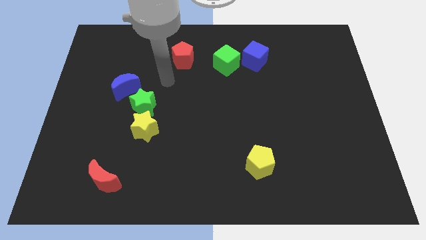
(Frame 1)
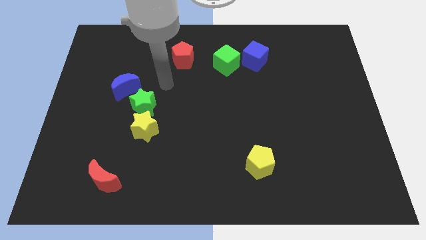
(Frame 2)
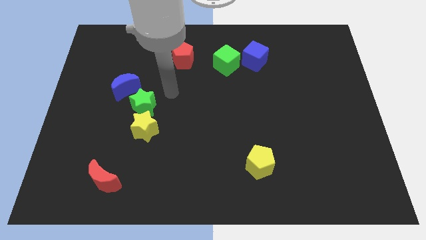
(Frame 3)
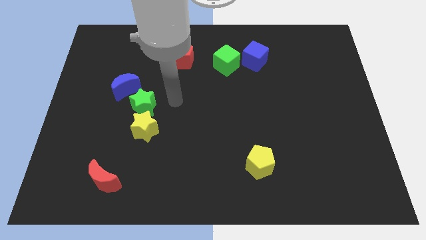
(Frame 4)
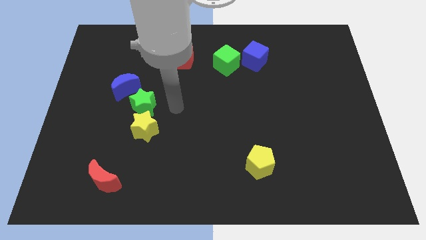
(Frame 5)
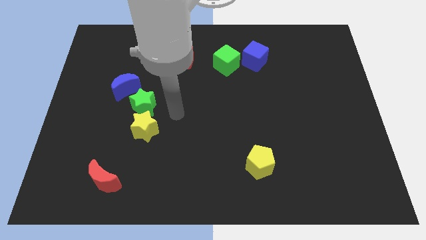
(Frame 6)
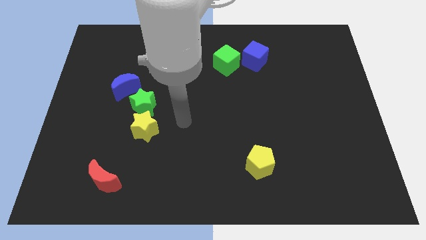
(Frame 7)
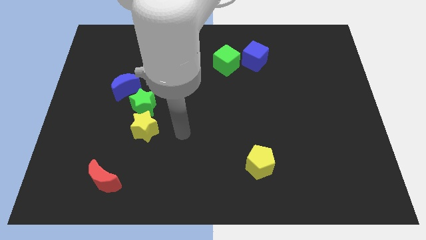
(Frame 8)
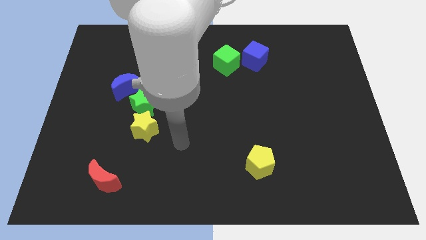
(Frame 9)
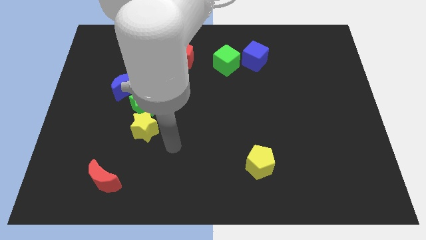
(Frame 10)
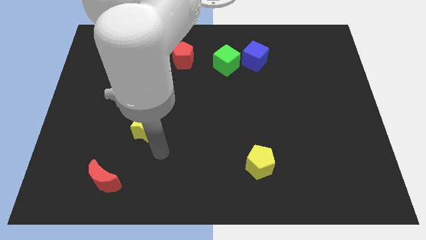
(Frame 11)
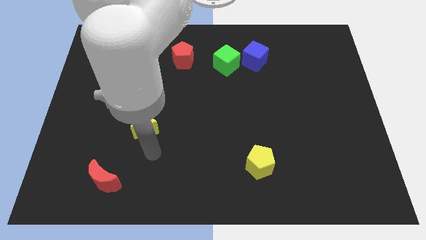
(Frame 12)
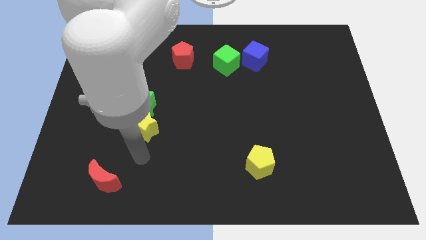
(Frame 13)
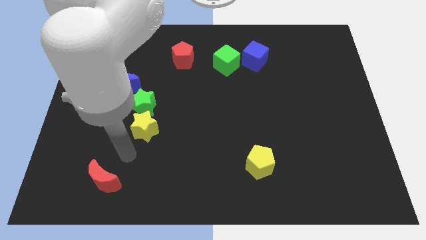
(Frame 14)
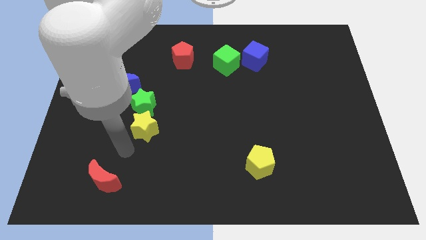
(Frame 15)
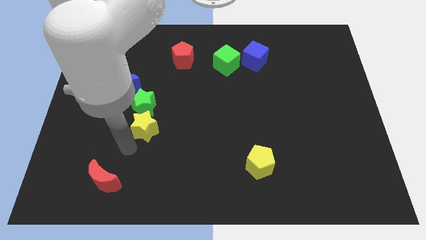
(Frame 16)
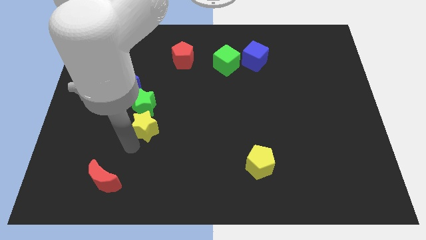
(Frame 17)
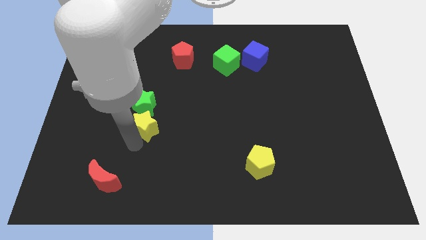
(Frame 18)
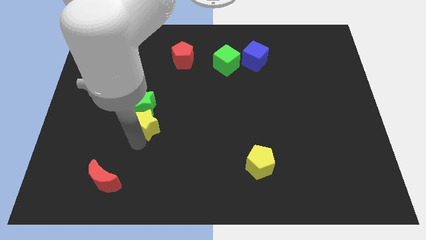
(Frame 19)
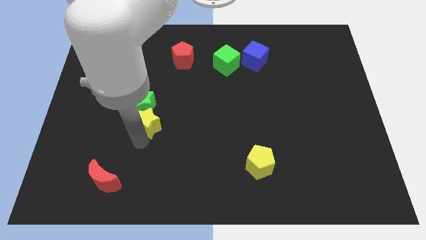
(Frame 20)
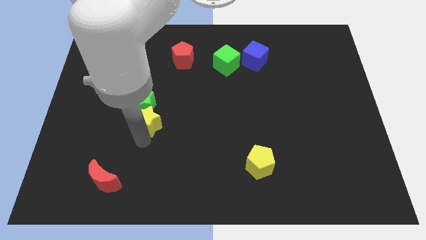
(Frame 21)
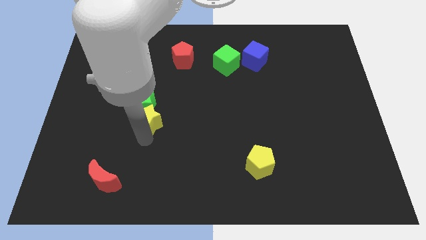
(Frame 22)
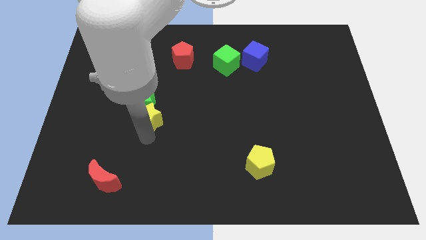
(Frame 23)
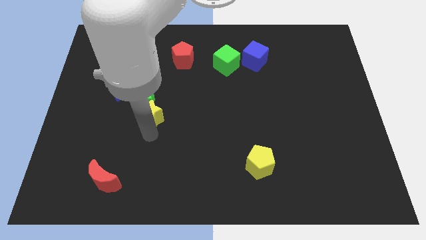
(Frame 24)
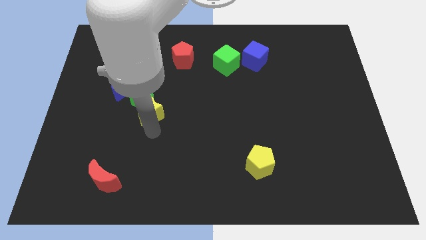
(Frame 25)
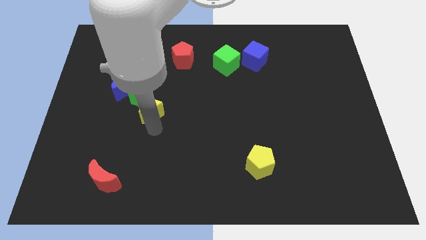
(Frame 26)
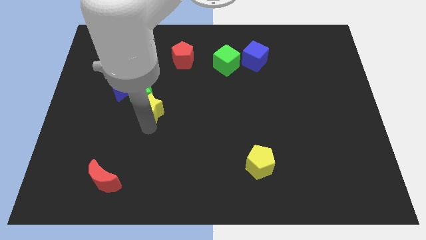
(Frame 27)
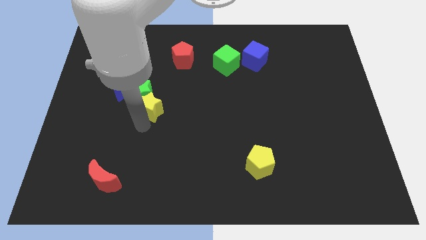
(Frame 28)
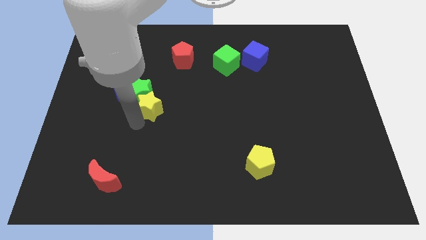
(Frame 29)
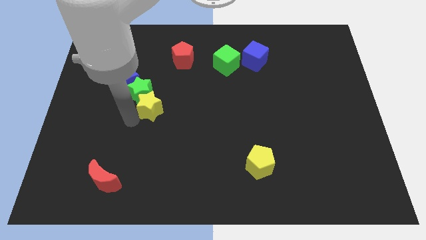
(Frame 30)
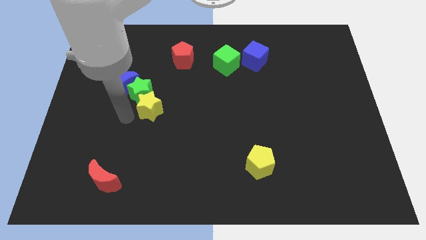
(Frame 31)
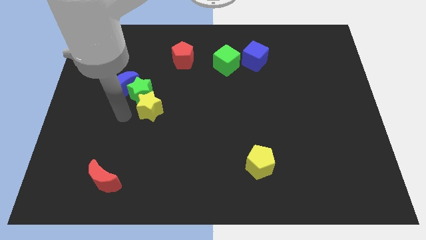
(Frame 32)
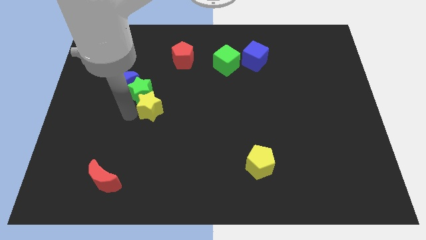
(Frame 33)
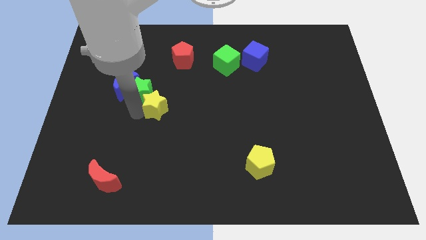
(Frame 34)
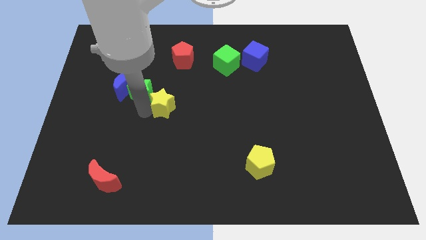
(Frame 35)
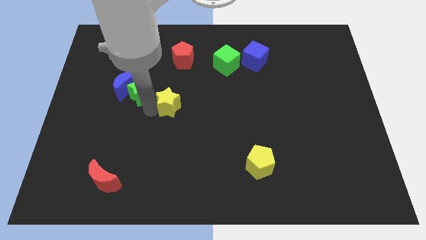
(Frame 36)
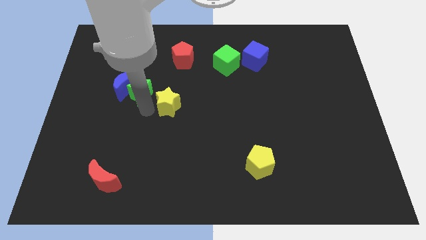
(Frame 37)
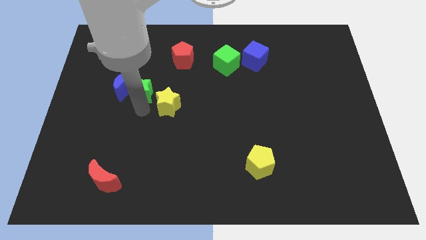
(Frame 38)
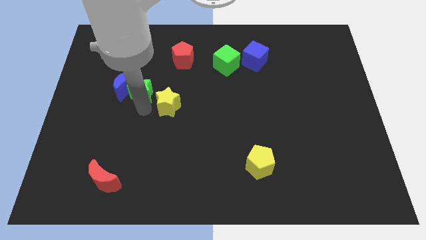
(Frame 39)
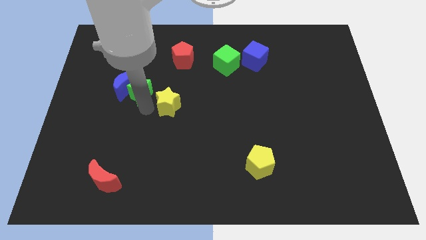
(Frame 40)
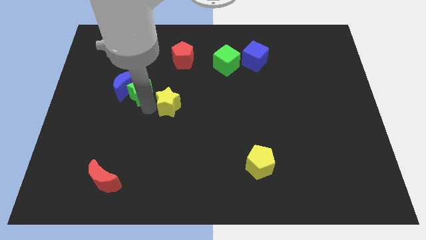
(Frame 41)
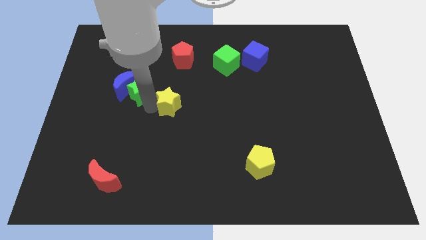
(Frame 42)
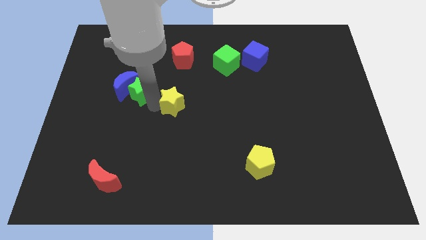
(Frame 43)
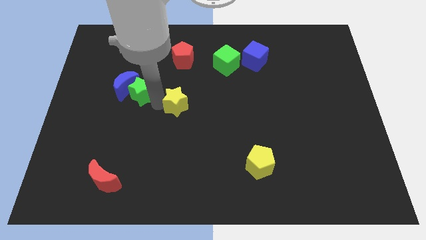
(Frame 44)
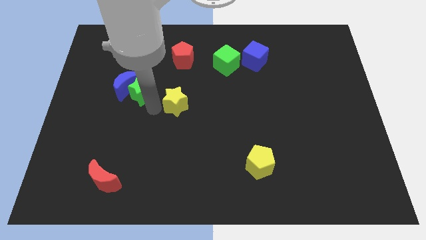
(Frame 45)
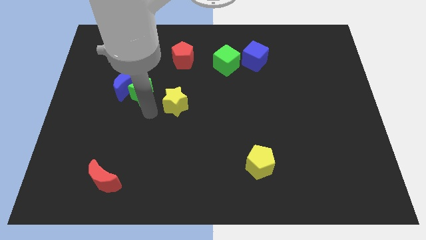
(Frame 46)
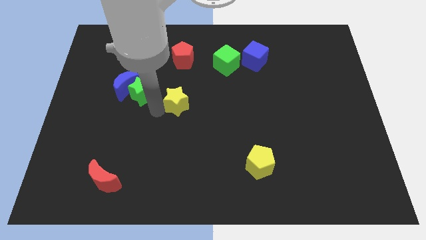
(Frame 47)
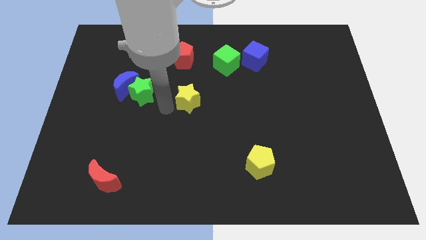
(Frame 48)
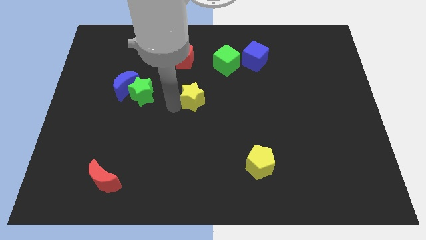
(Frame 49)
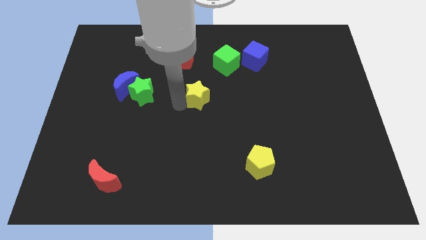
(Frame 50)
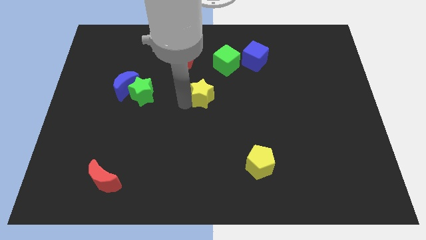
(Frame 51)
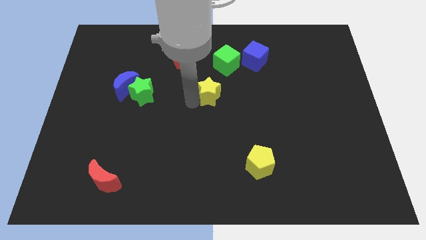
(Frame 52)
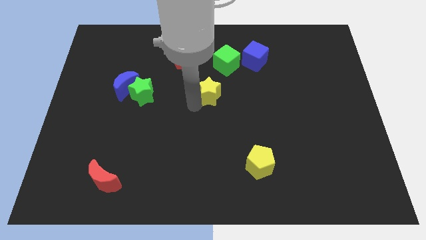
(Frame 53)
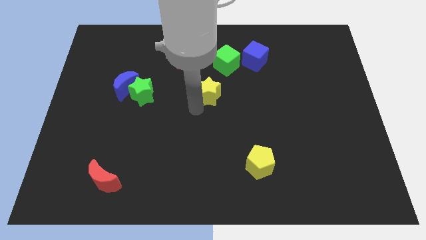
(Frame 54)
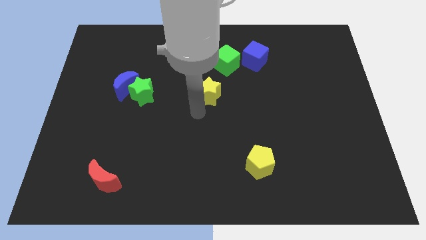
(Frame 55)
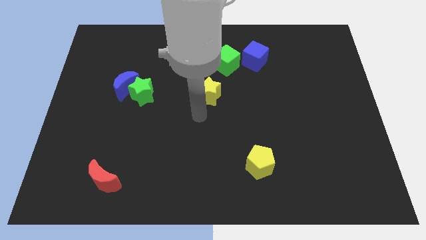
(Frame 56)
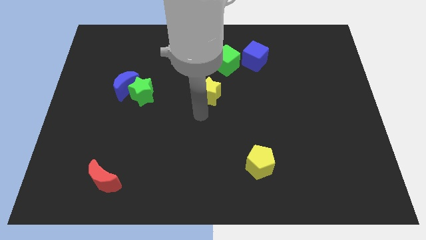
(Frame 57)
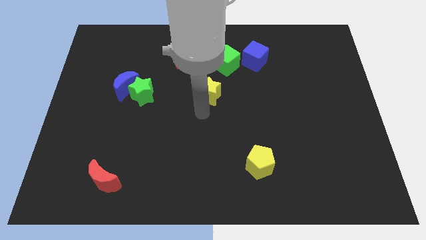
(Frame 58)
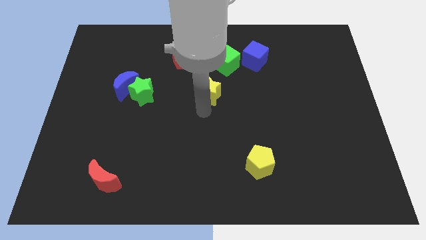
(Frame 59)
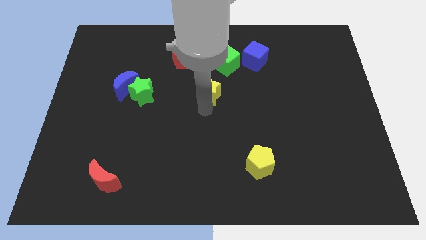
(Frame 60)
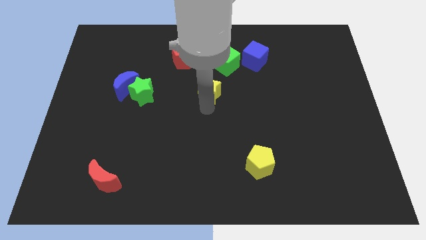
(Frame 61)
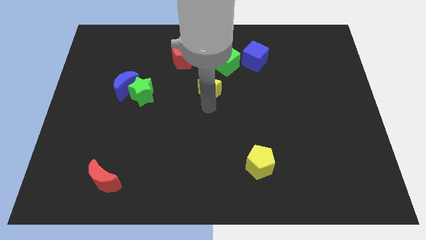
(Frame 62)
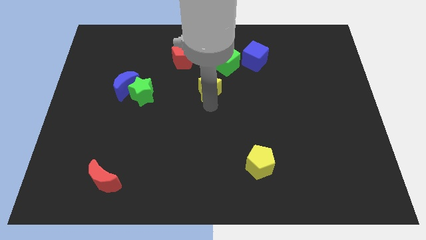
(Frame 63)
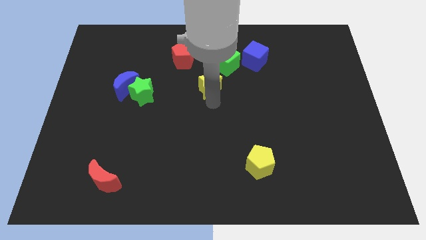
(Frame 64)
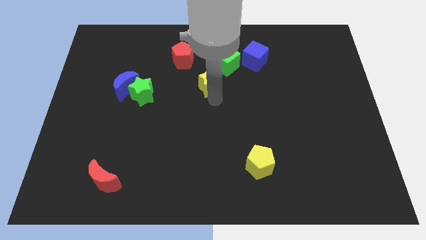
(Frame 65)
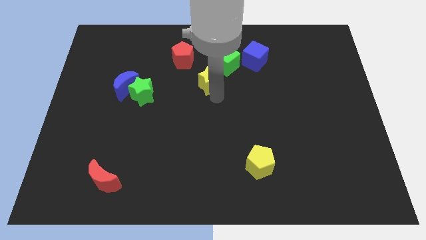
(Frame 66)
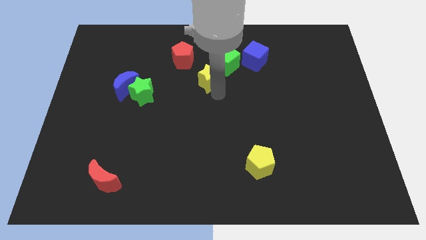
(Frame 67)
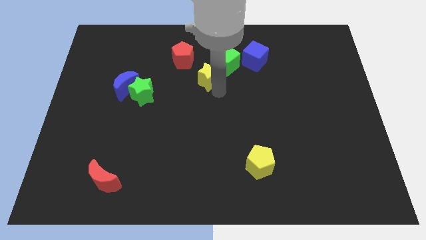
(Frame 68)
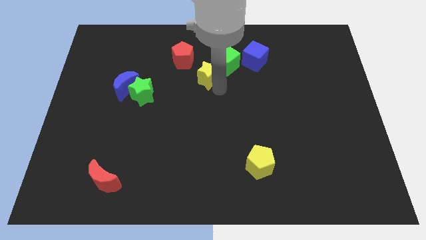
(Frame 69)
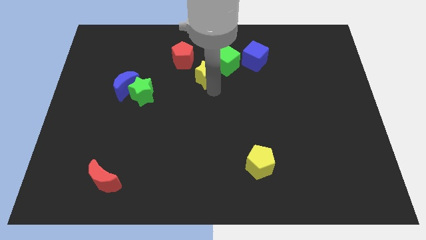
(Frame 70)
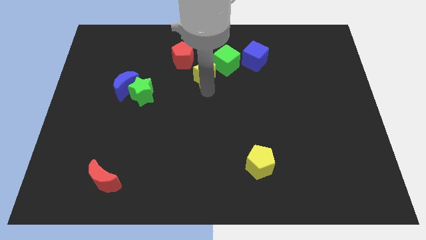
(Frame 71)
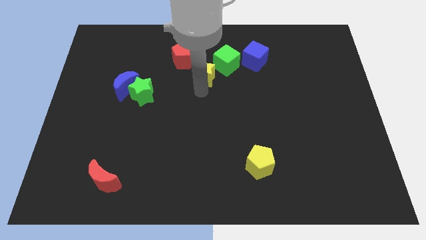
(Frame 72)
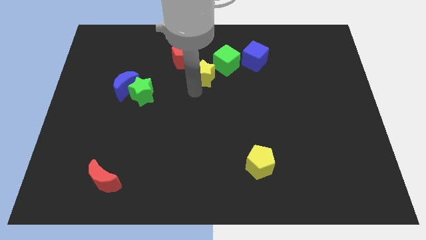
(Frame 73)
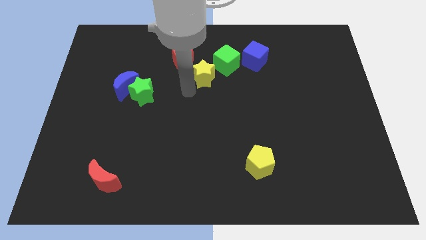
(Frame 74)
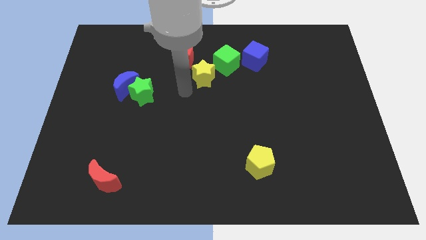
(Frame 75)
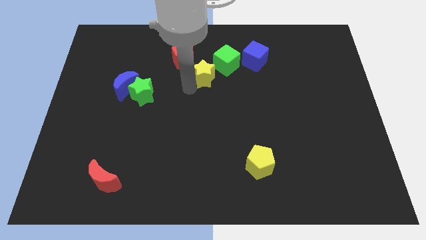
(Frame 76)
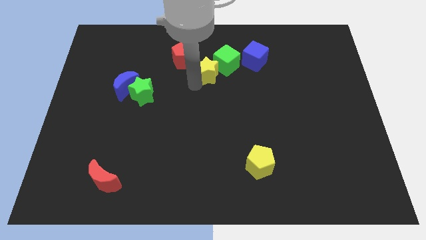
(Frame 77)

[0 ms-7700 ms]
move the yellow star next to the green cube
